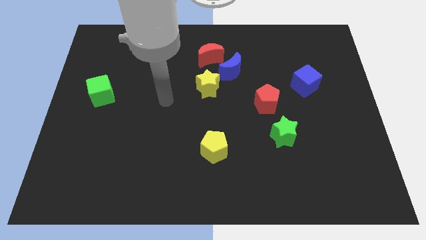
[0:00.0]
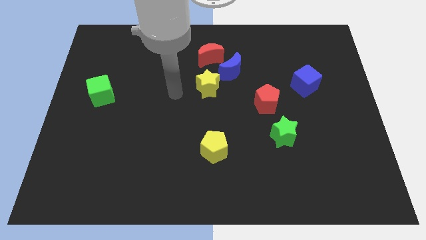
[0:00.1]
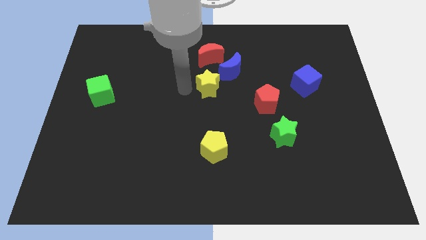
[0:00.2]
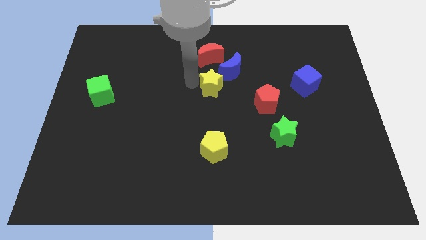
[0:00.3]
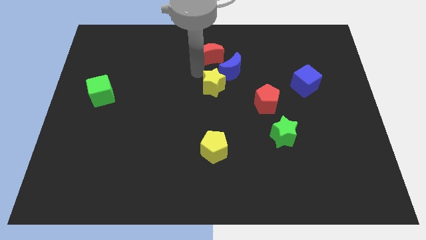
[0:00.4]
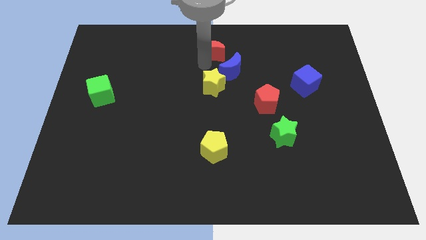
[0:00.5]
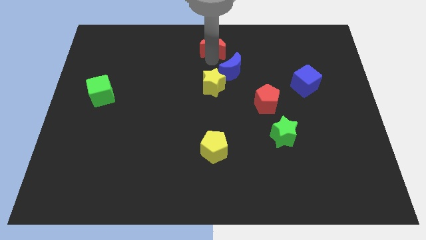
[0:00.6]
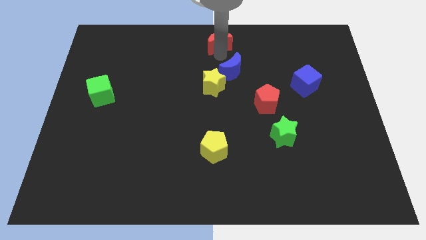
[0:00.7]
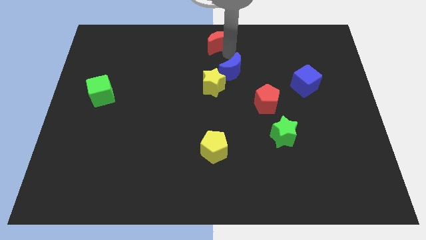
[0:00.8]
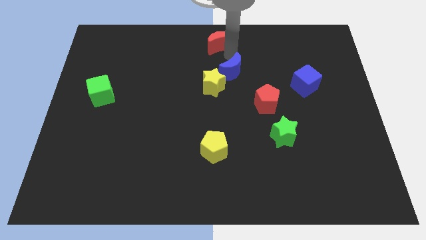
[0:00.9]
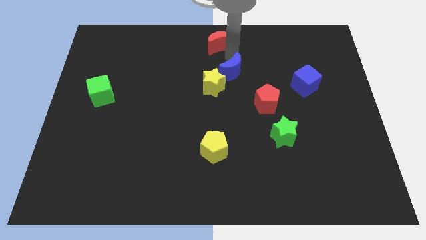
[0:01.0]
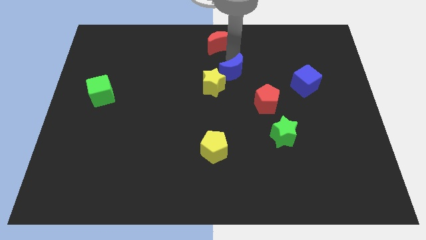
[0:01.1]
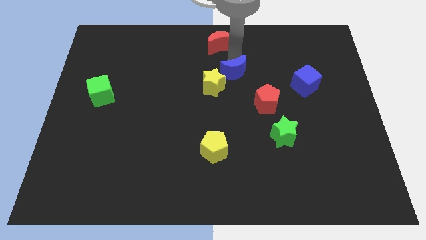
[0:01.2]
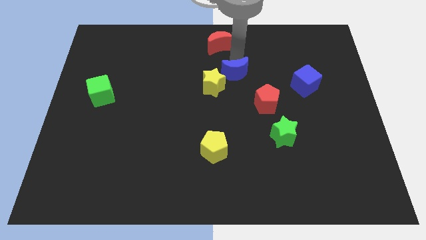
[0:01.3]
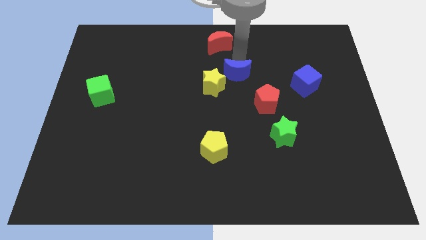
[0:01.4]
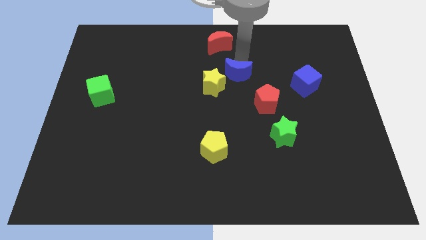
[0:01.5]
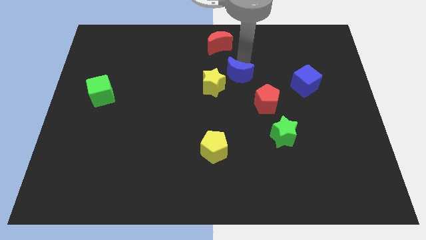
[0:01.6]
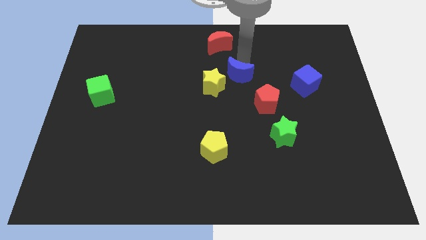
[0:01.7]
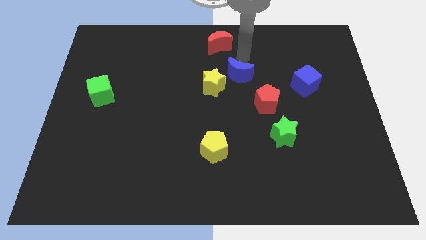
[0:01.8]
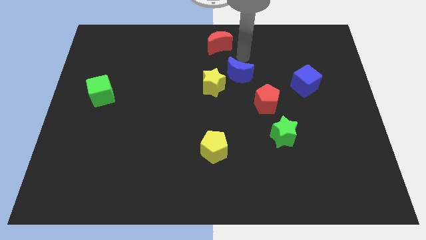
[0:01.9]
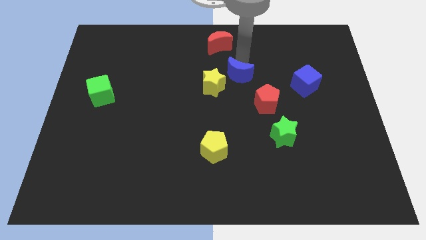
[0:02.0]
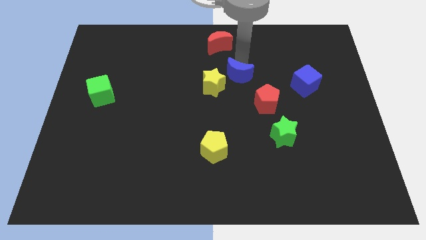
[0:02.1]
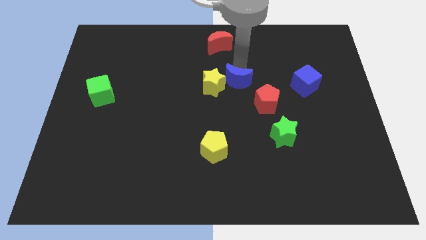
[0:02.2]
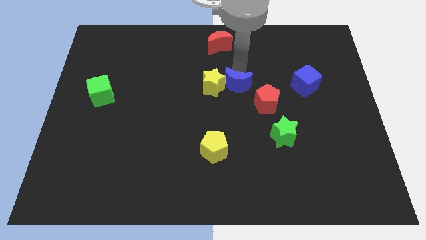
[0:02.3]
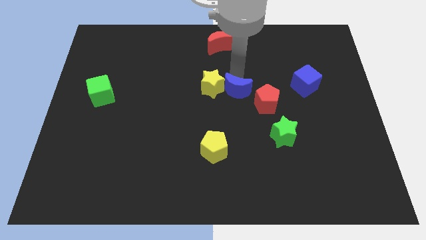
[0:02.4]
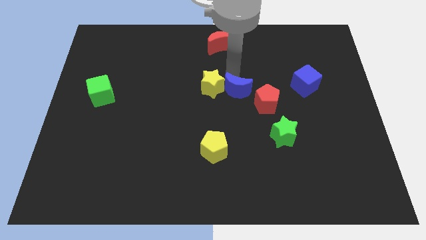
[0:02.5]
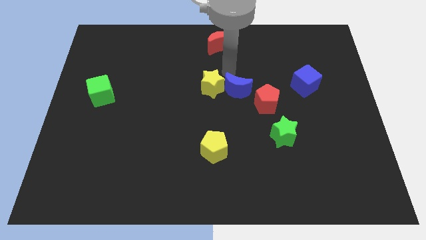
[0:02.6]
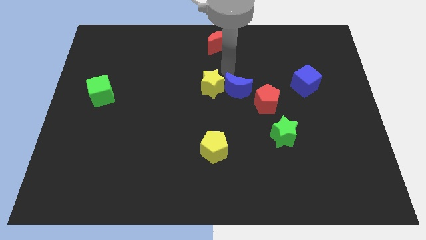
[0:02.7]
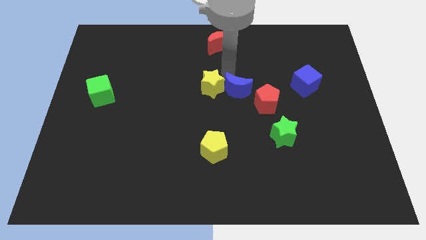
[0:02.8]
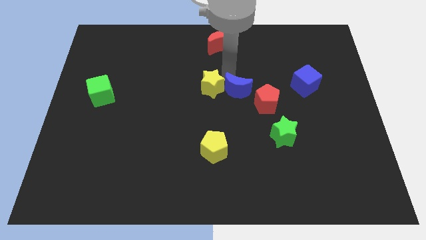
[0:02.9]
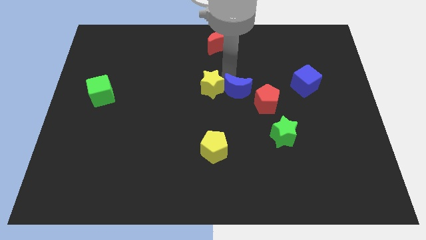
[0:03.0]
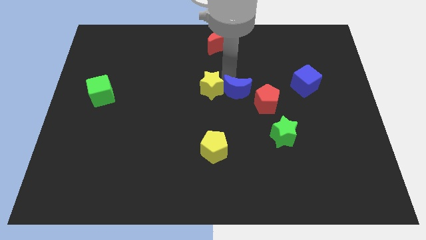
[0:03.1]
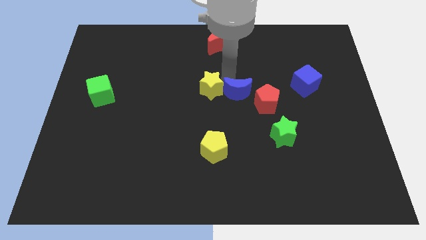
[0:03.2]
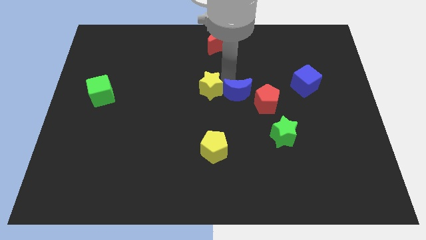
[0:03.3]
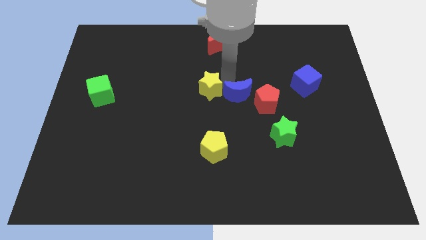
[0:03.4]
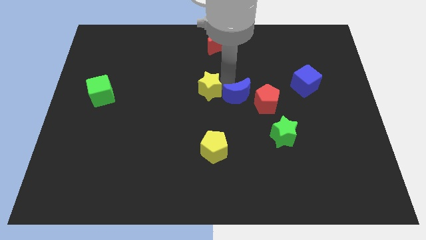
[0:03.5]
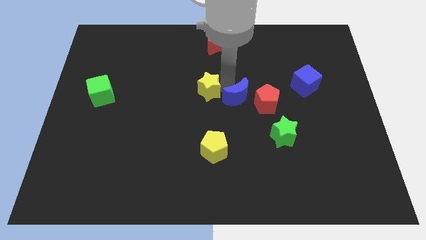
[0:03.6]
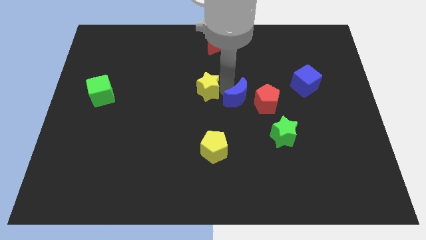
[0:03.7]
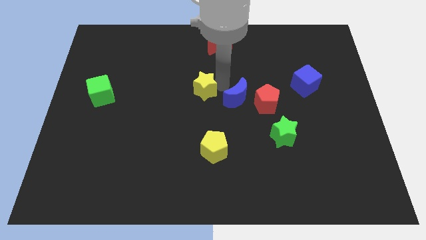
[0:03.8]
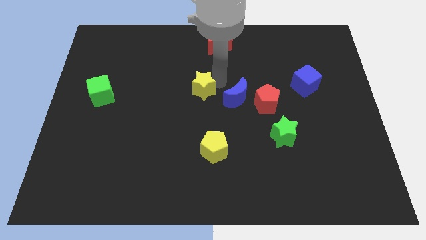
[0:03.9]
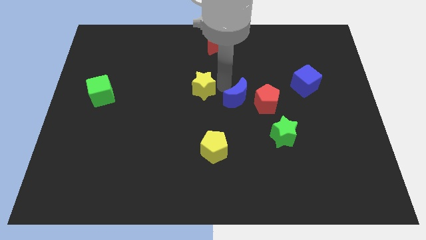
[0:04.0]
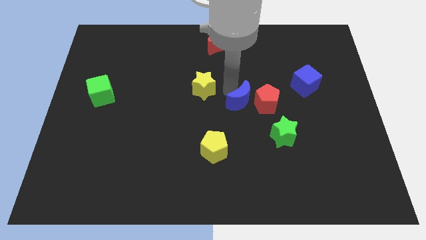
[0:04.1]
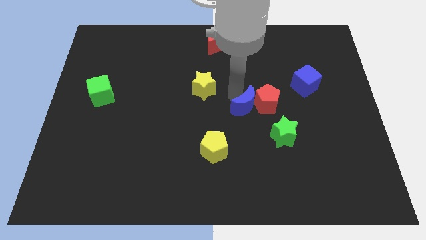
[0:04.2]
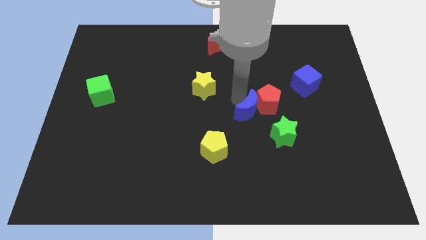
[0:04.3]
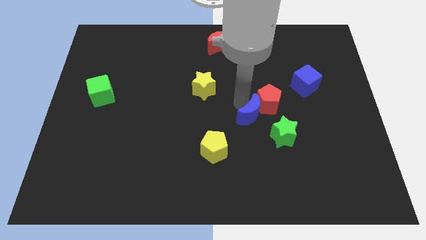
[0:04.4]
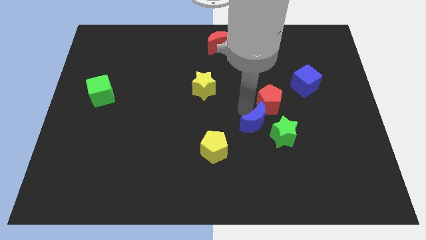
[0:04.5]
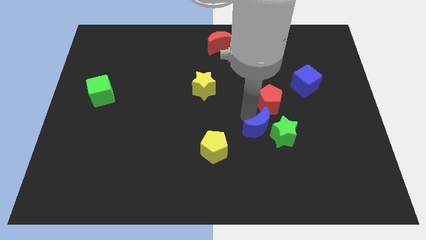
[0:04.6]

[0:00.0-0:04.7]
push the blue moon towards the green star

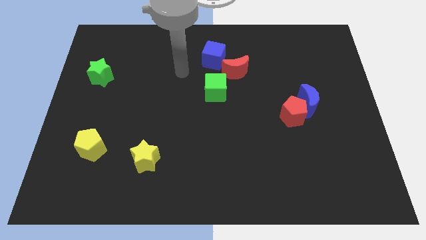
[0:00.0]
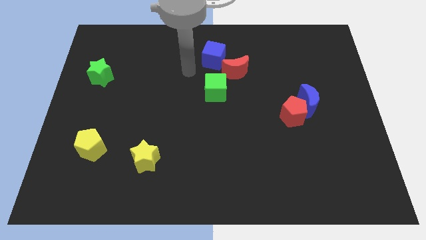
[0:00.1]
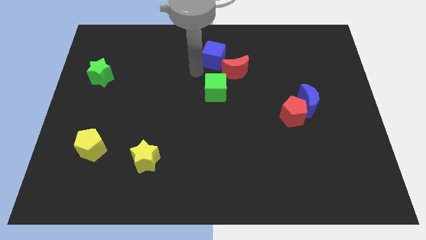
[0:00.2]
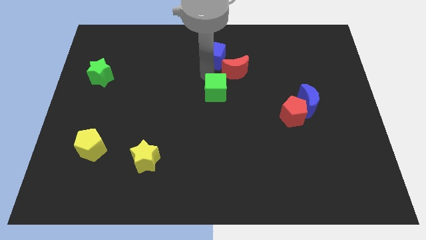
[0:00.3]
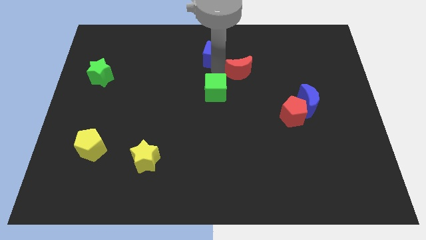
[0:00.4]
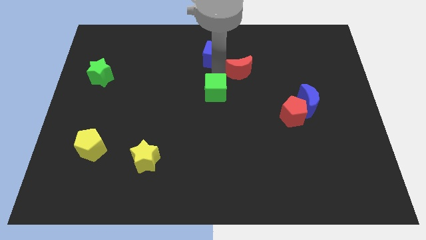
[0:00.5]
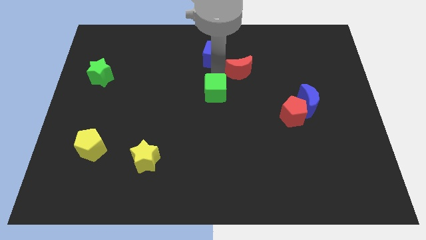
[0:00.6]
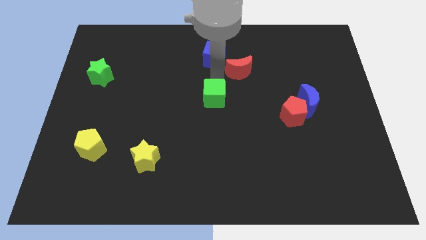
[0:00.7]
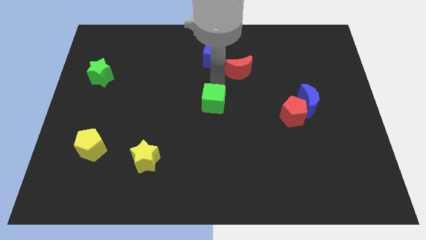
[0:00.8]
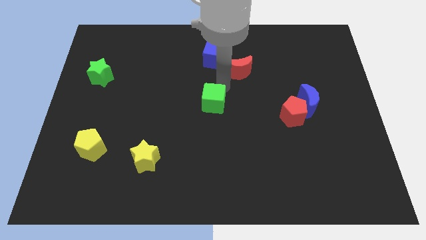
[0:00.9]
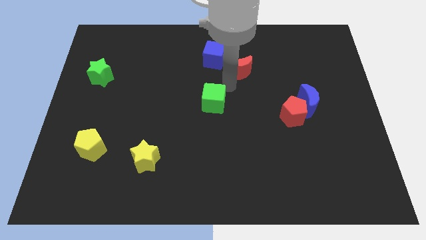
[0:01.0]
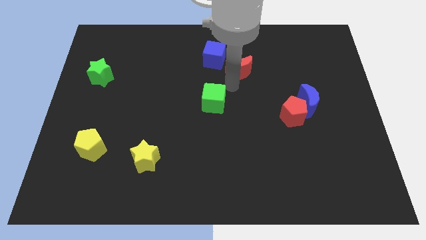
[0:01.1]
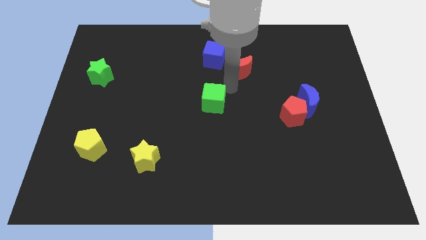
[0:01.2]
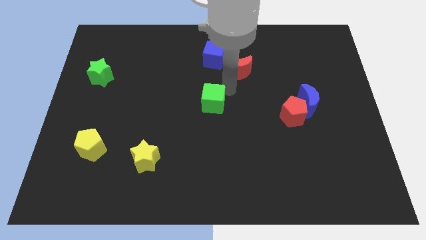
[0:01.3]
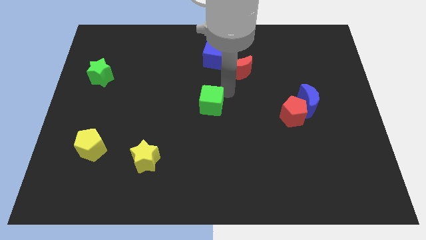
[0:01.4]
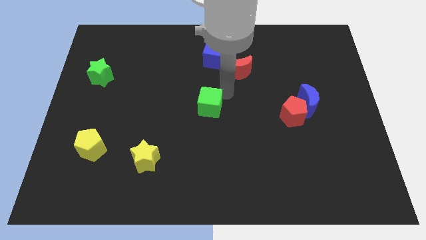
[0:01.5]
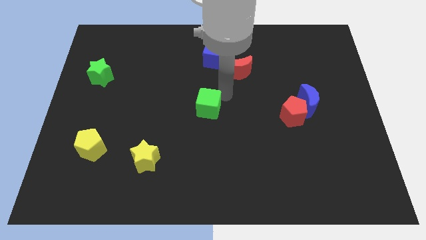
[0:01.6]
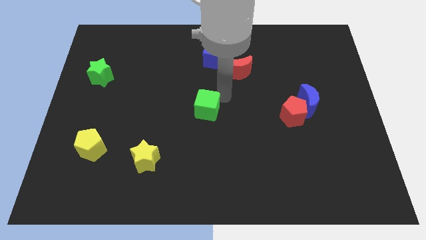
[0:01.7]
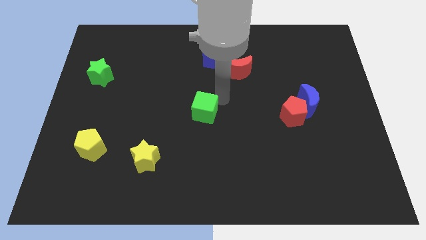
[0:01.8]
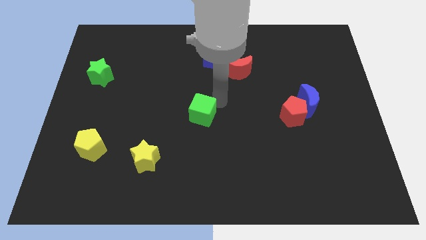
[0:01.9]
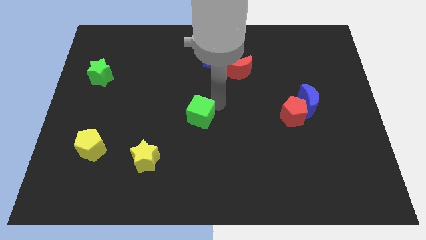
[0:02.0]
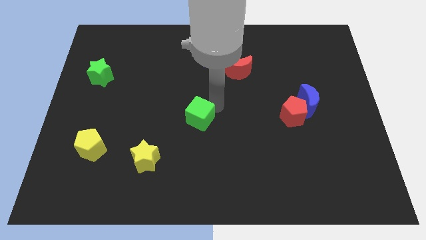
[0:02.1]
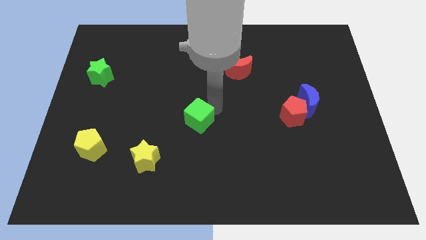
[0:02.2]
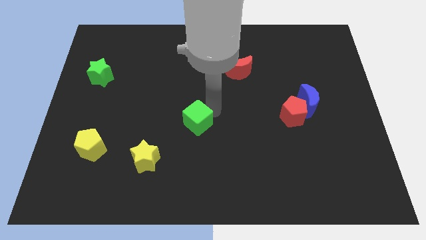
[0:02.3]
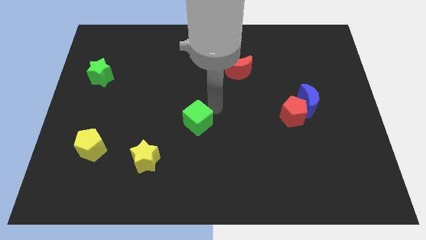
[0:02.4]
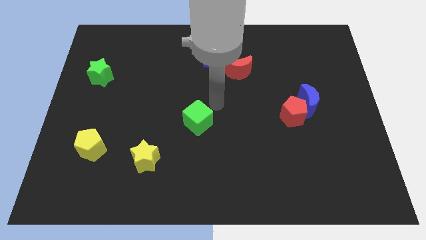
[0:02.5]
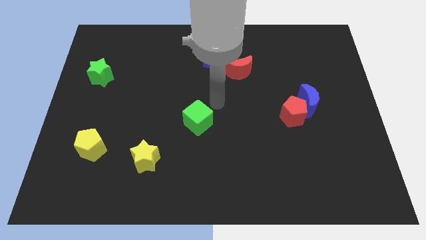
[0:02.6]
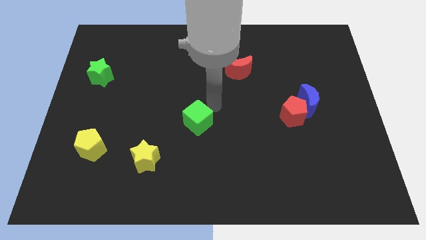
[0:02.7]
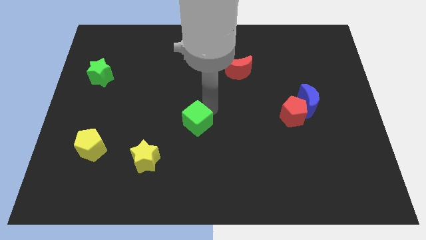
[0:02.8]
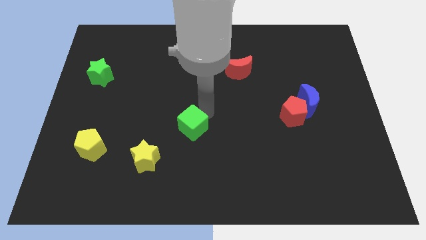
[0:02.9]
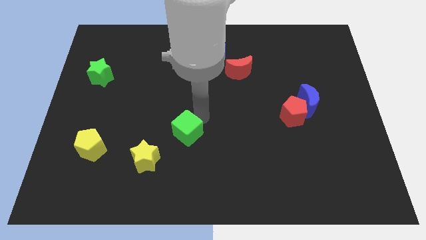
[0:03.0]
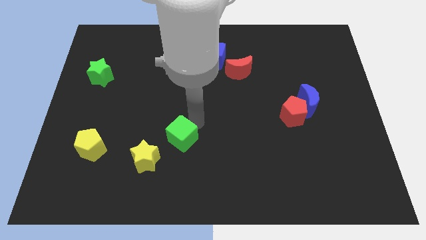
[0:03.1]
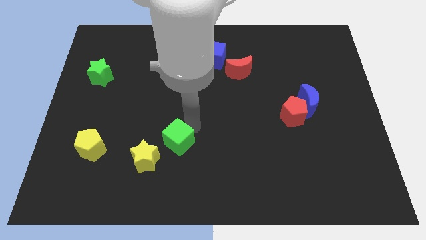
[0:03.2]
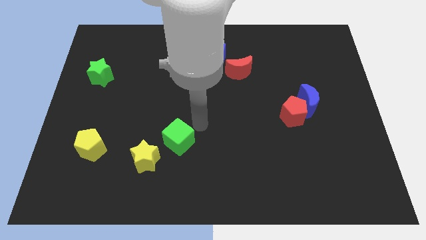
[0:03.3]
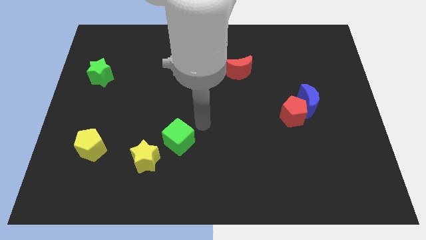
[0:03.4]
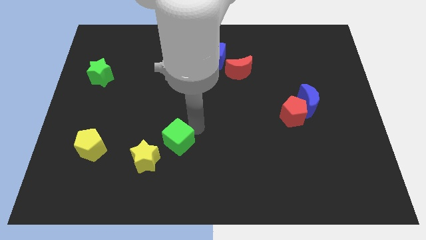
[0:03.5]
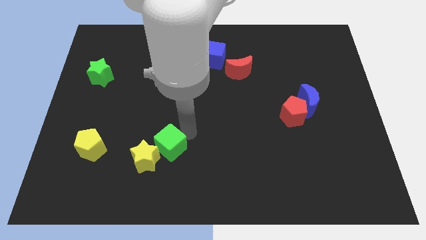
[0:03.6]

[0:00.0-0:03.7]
push the green cube close to the yellow star
